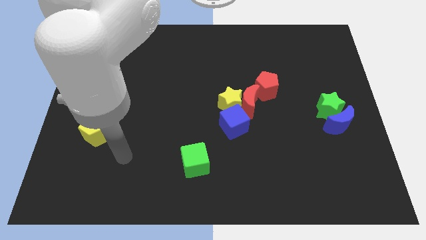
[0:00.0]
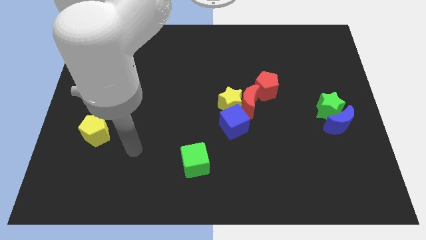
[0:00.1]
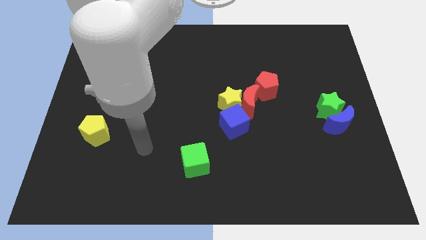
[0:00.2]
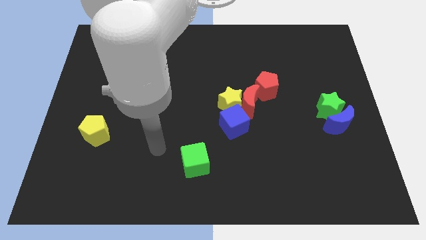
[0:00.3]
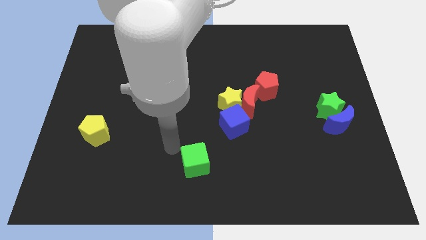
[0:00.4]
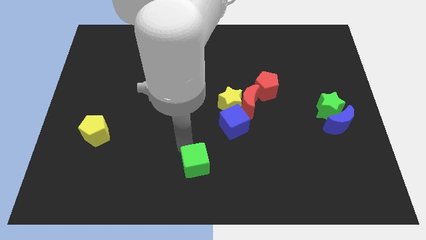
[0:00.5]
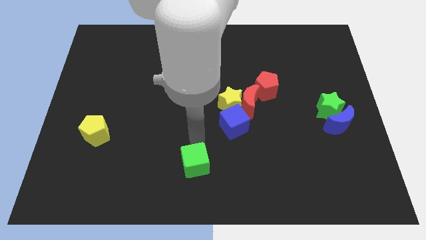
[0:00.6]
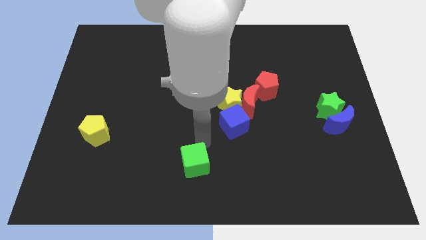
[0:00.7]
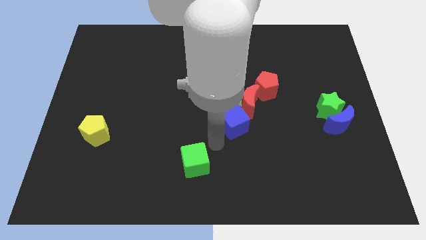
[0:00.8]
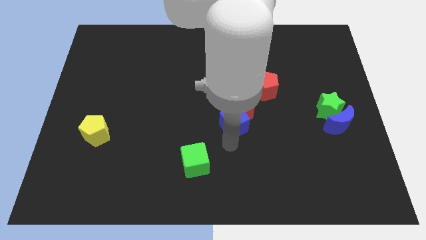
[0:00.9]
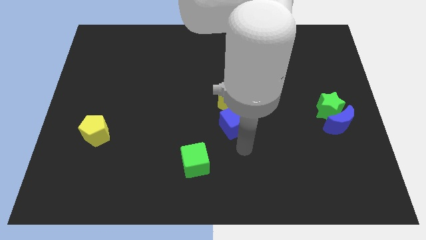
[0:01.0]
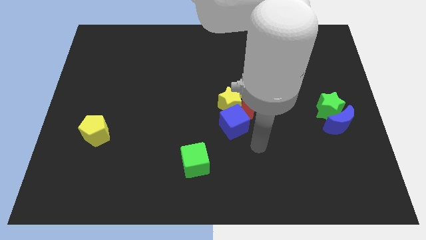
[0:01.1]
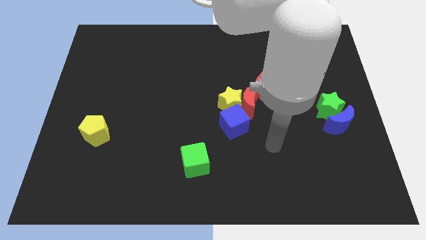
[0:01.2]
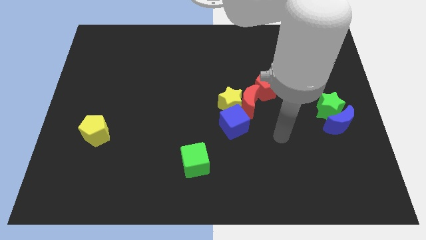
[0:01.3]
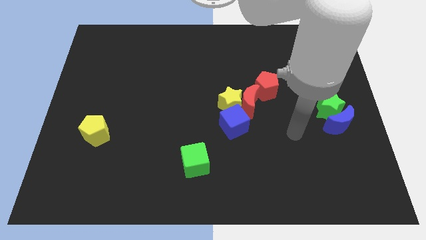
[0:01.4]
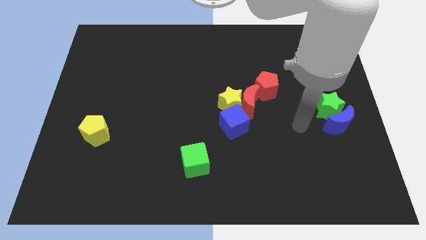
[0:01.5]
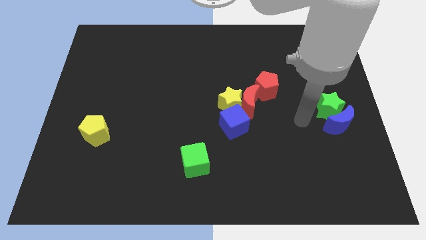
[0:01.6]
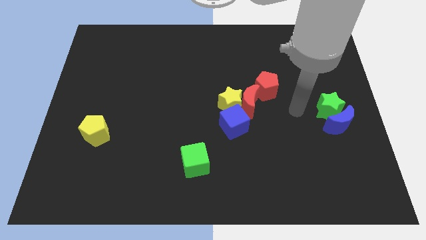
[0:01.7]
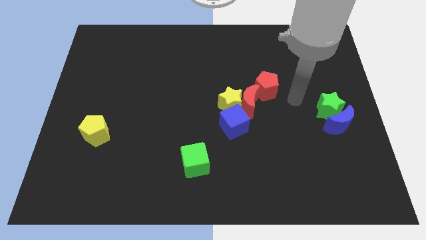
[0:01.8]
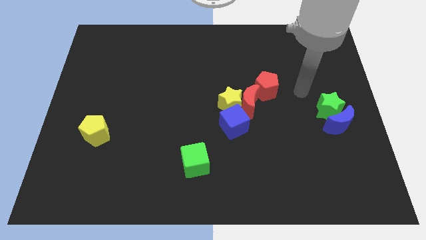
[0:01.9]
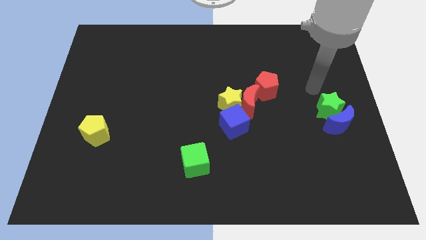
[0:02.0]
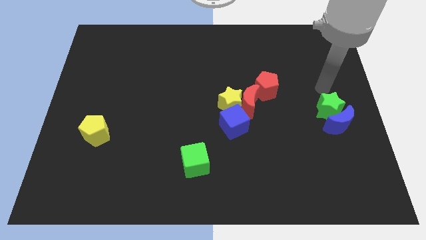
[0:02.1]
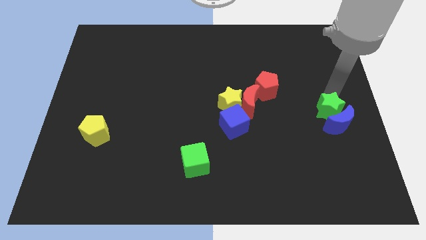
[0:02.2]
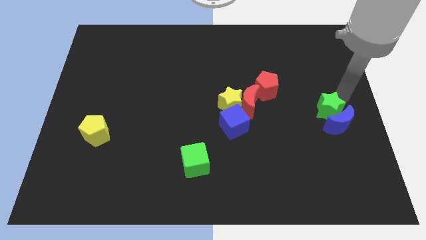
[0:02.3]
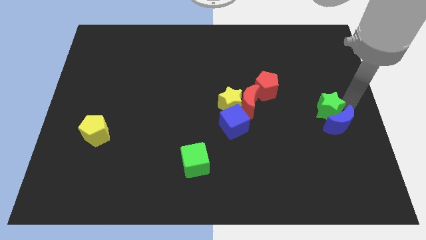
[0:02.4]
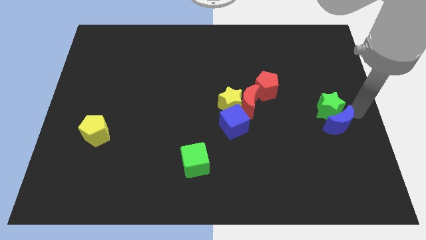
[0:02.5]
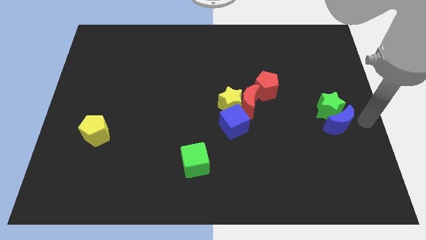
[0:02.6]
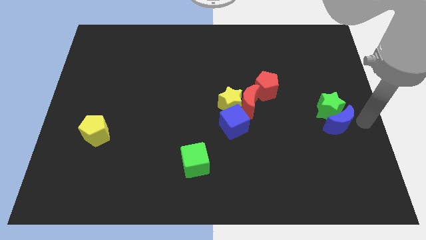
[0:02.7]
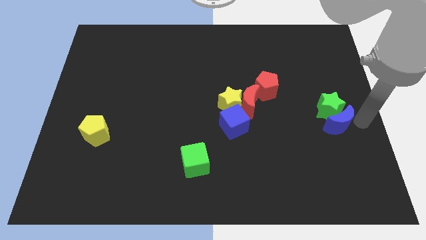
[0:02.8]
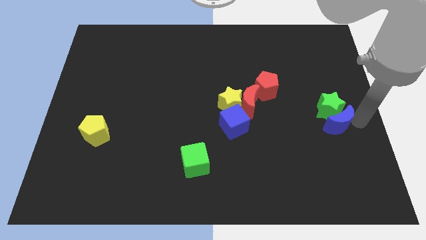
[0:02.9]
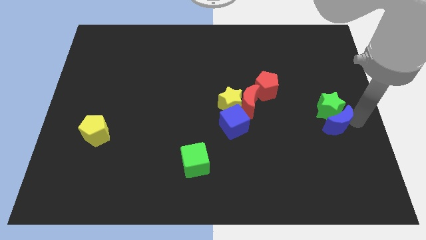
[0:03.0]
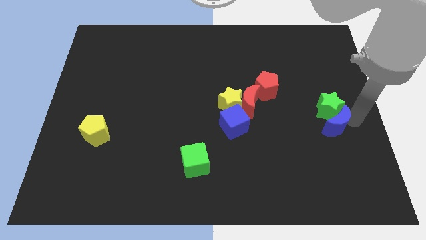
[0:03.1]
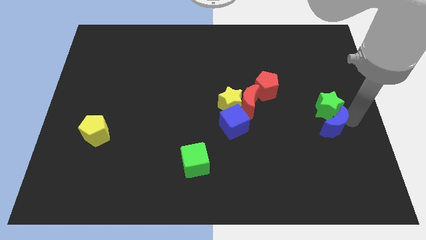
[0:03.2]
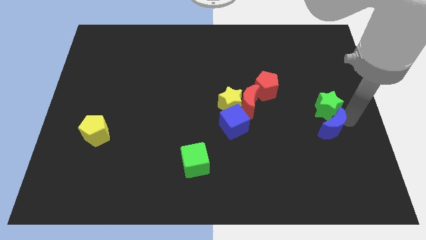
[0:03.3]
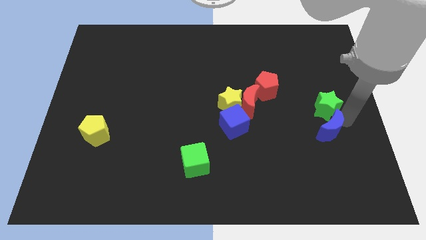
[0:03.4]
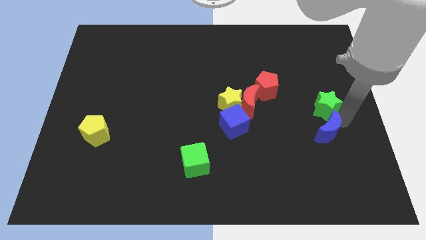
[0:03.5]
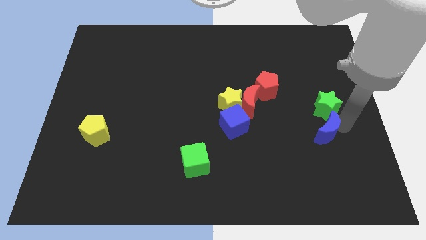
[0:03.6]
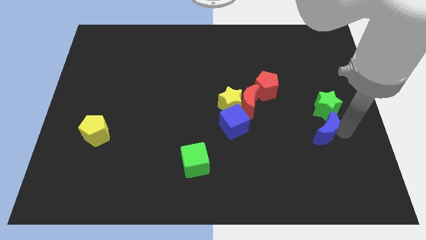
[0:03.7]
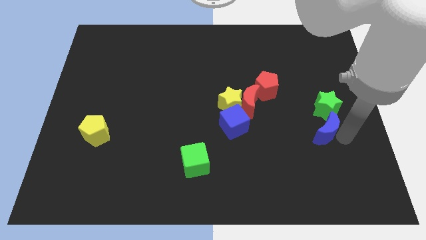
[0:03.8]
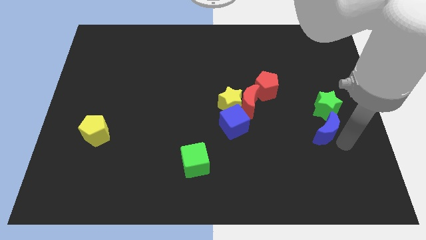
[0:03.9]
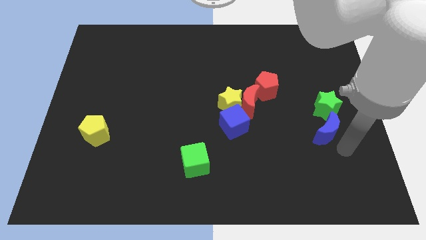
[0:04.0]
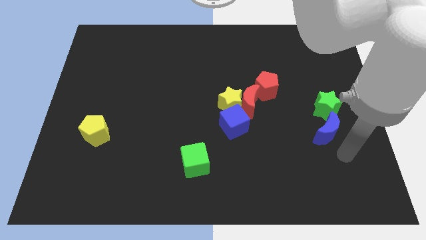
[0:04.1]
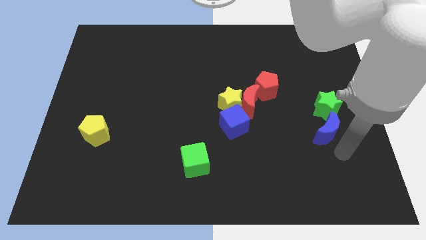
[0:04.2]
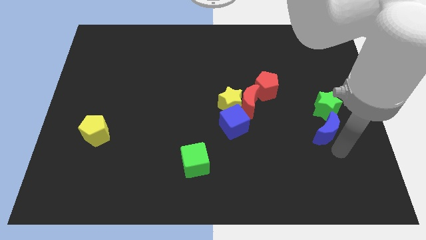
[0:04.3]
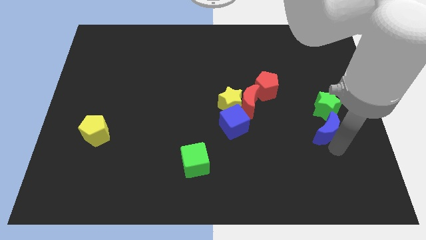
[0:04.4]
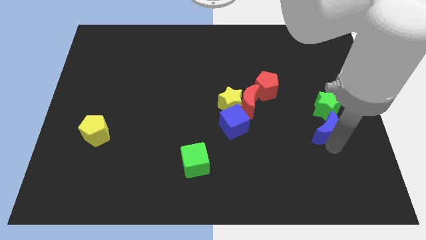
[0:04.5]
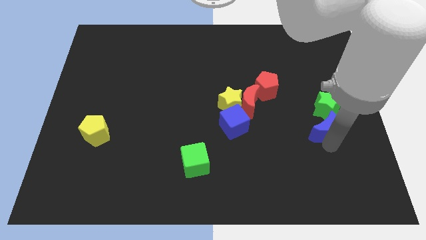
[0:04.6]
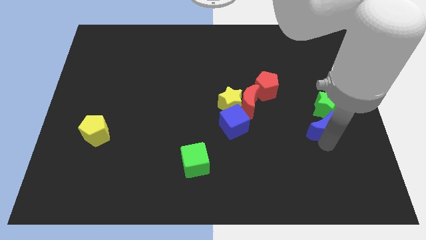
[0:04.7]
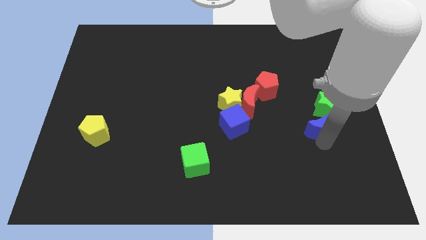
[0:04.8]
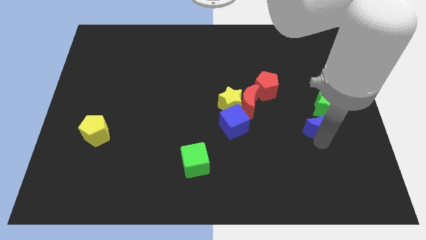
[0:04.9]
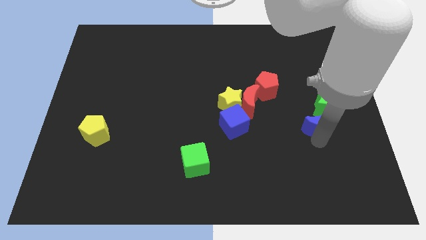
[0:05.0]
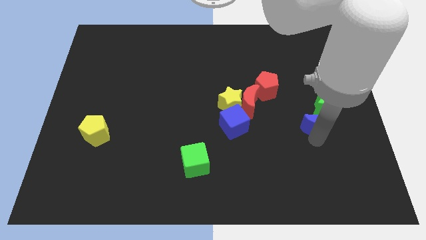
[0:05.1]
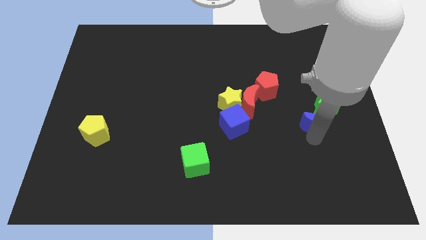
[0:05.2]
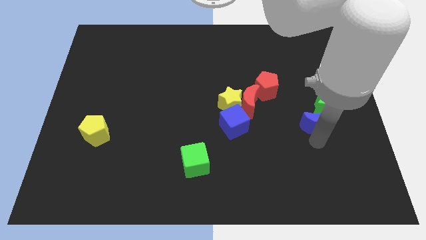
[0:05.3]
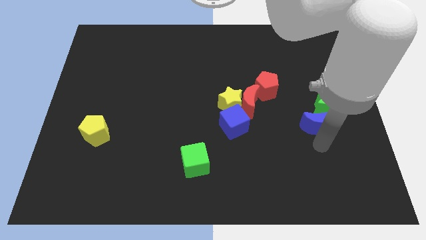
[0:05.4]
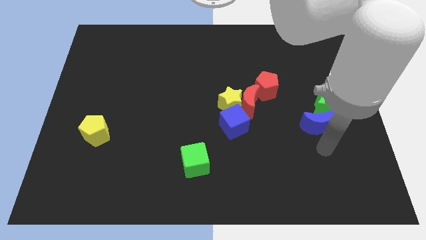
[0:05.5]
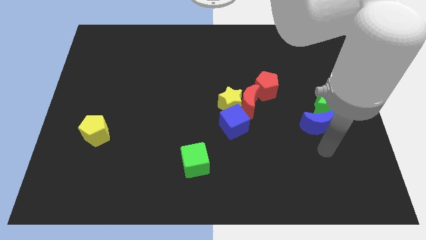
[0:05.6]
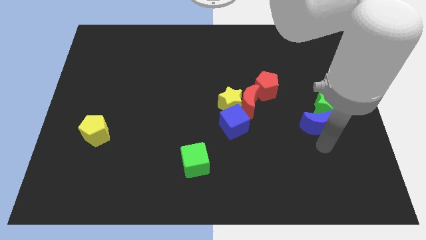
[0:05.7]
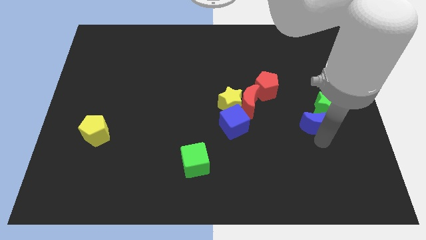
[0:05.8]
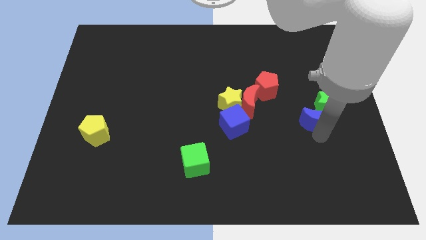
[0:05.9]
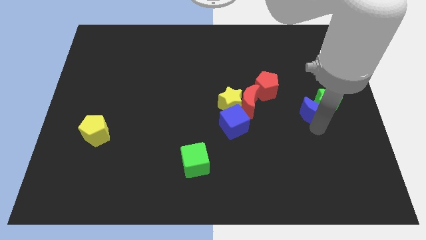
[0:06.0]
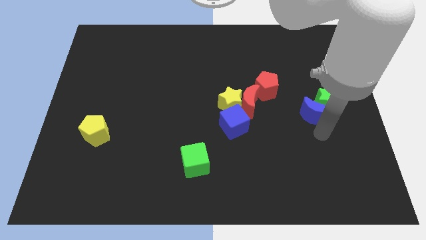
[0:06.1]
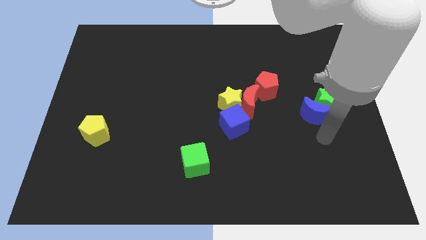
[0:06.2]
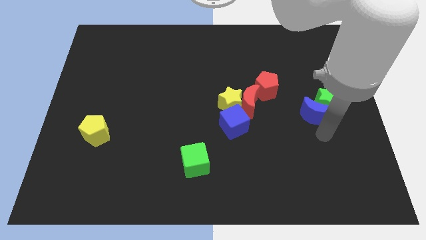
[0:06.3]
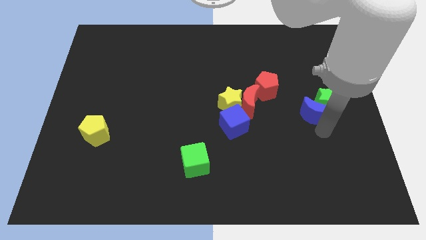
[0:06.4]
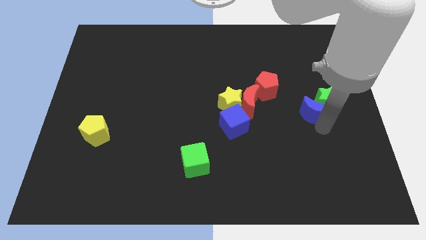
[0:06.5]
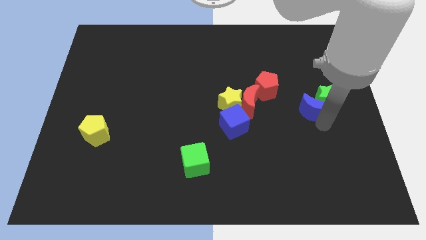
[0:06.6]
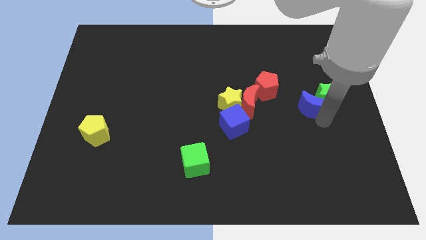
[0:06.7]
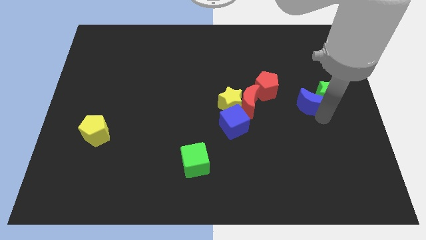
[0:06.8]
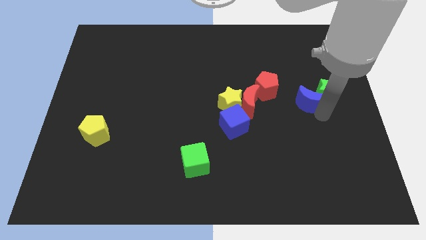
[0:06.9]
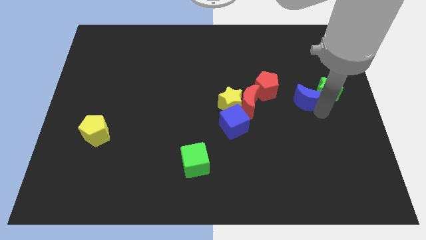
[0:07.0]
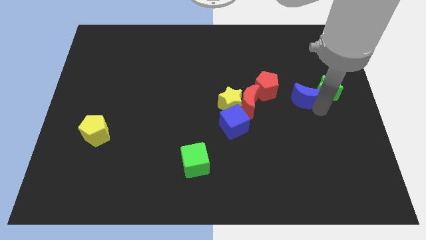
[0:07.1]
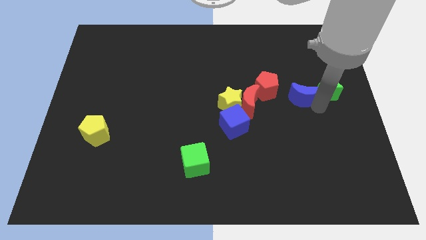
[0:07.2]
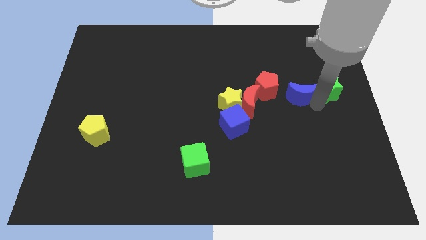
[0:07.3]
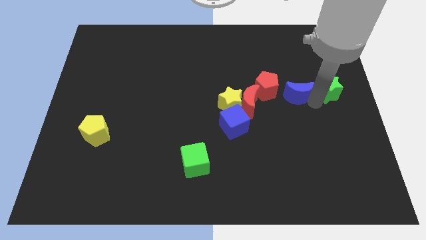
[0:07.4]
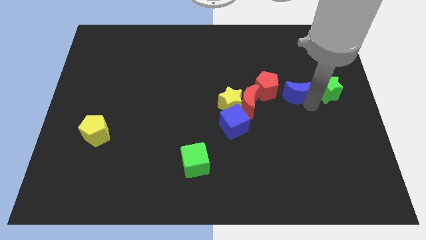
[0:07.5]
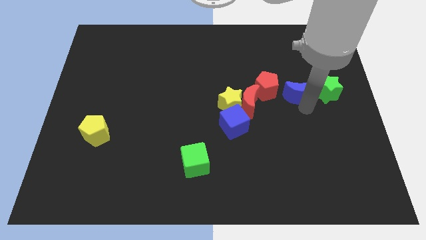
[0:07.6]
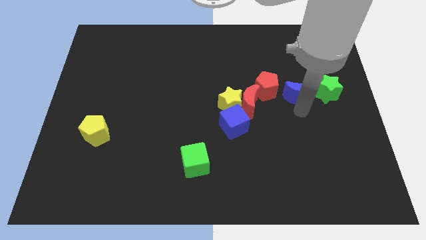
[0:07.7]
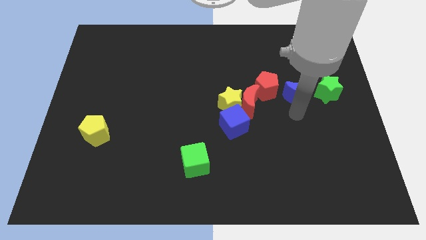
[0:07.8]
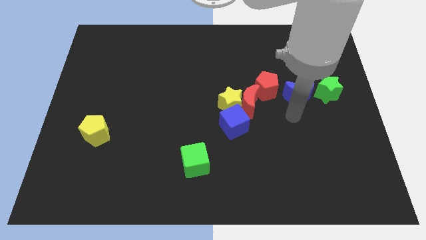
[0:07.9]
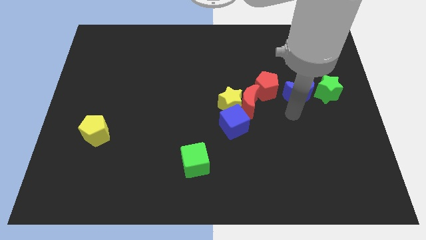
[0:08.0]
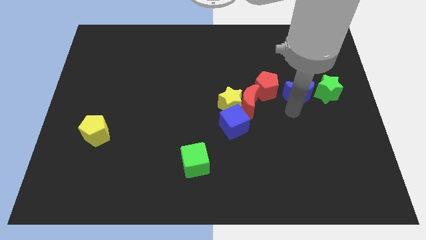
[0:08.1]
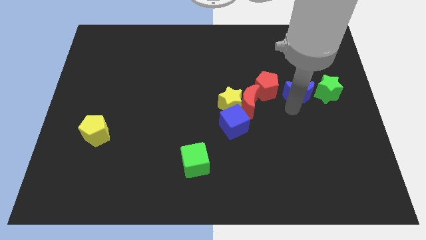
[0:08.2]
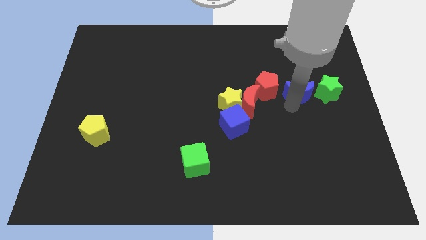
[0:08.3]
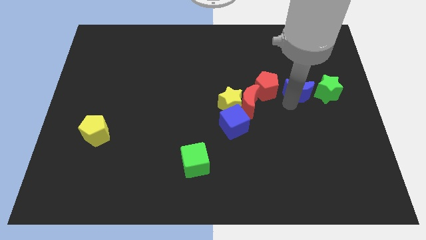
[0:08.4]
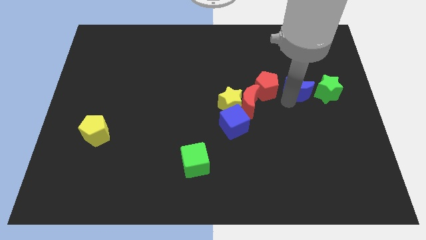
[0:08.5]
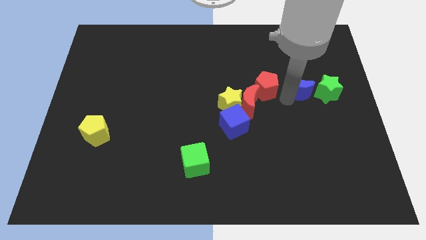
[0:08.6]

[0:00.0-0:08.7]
push the blue moon to the top left of the green star
